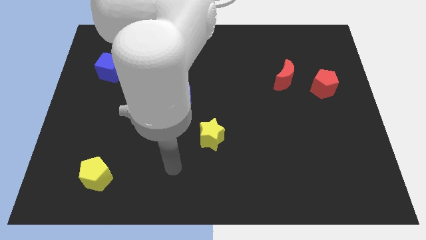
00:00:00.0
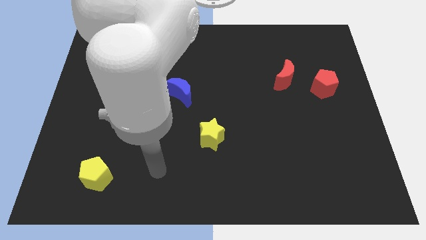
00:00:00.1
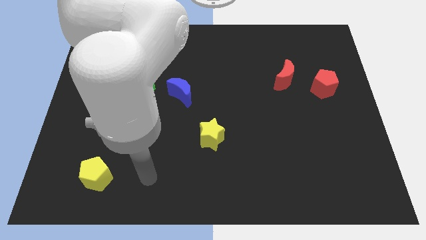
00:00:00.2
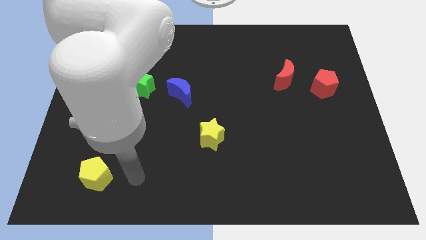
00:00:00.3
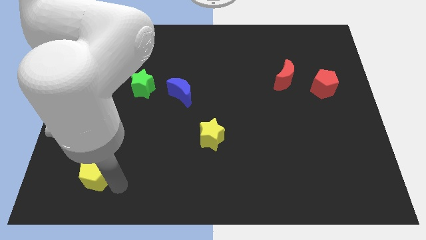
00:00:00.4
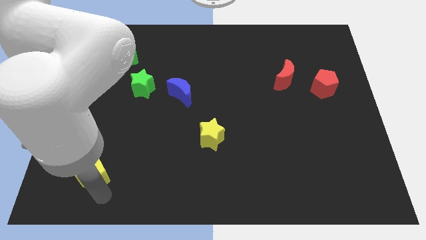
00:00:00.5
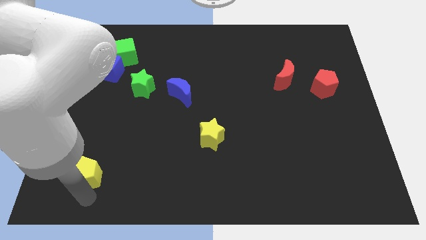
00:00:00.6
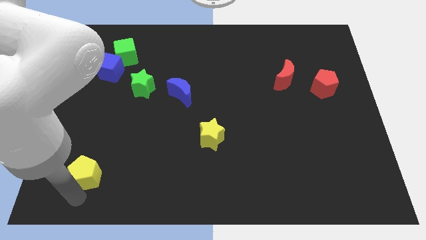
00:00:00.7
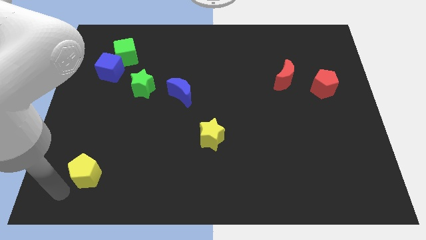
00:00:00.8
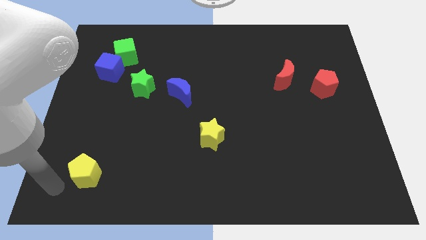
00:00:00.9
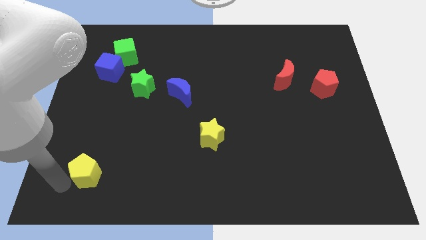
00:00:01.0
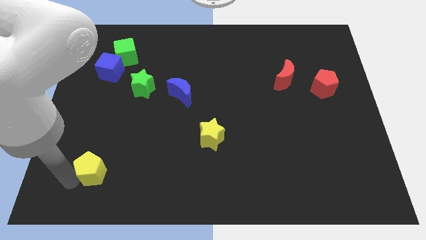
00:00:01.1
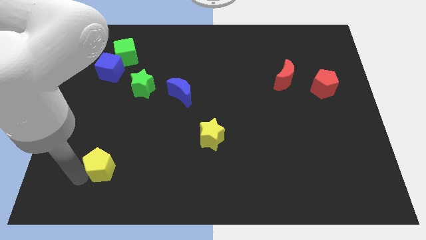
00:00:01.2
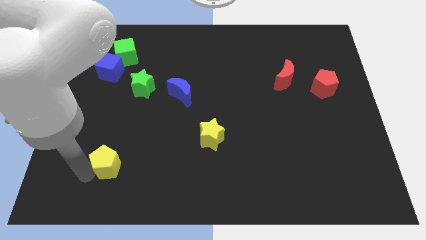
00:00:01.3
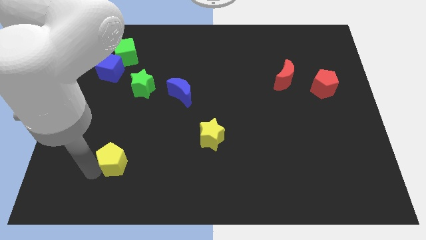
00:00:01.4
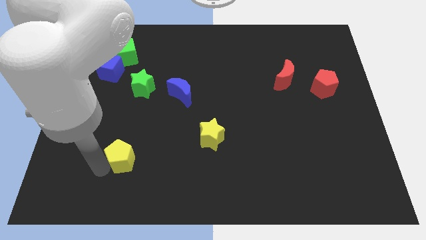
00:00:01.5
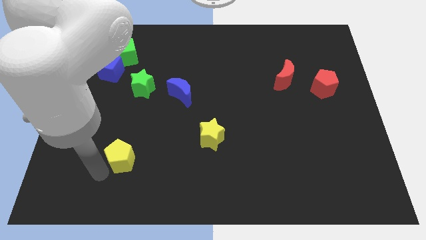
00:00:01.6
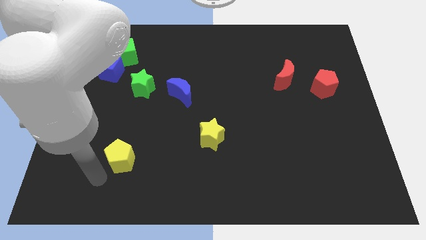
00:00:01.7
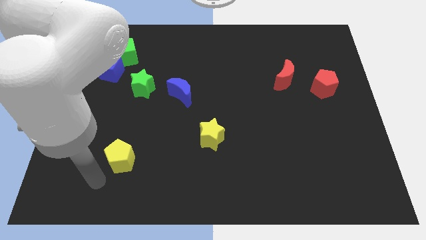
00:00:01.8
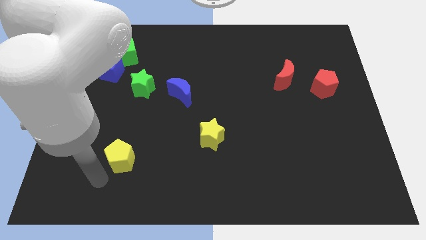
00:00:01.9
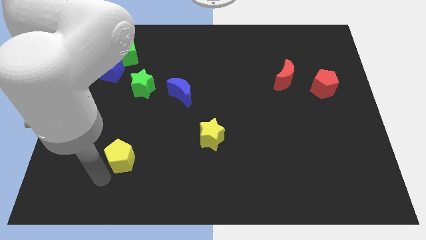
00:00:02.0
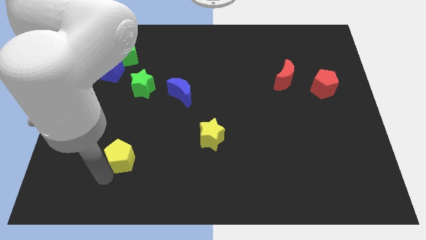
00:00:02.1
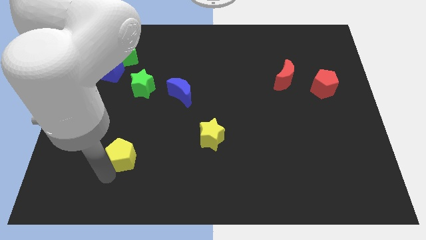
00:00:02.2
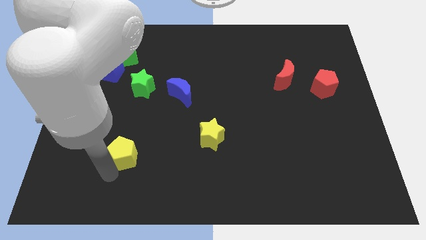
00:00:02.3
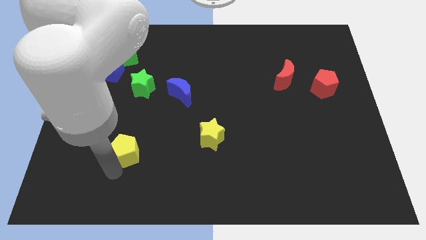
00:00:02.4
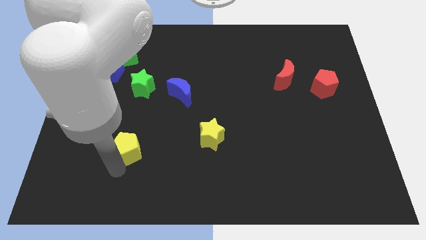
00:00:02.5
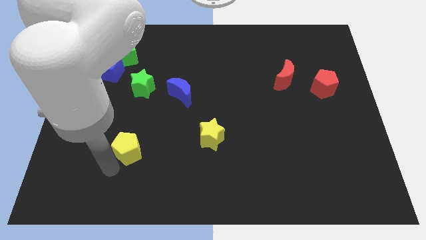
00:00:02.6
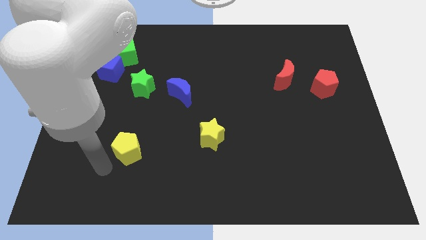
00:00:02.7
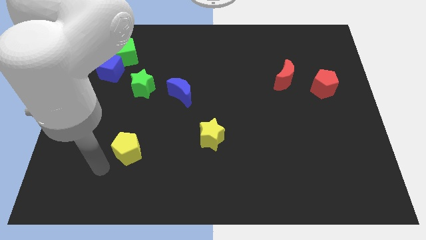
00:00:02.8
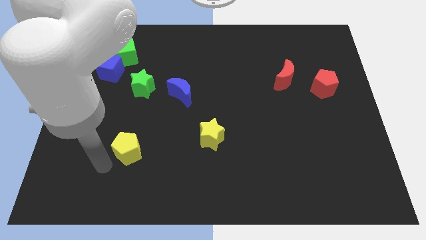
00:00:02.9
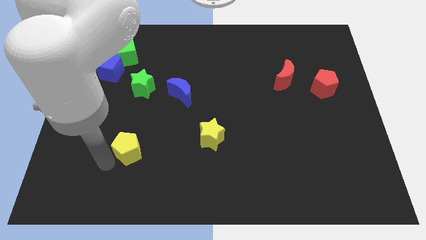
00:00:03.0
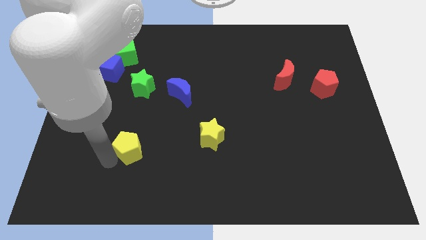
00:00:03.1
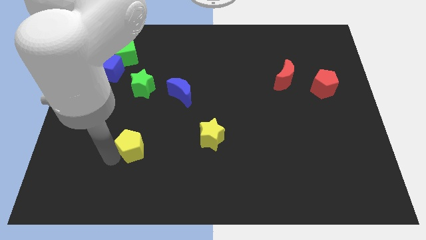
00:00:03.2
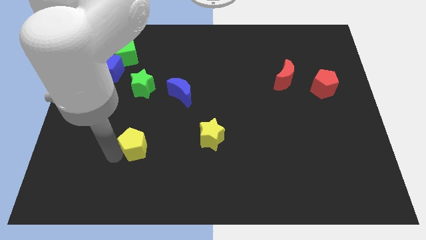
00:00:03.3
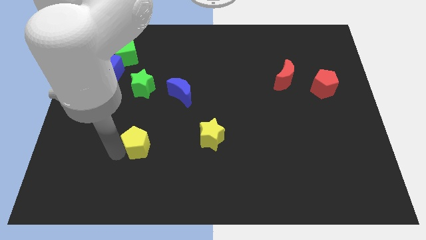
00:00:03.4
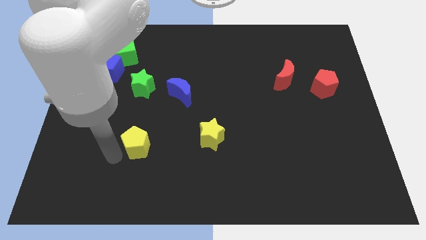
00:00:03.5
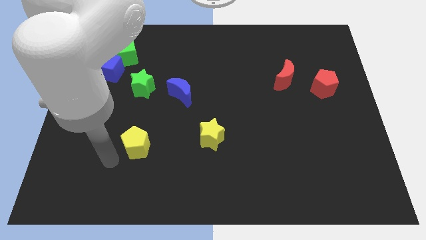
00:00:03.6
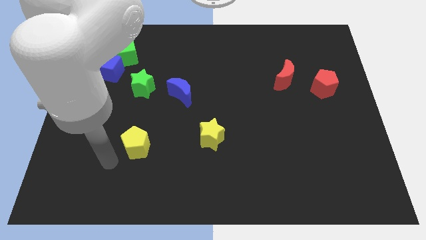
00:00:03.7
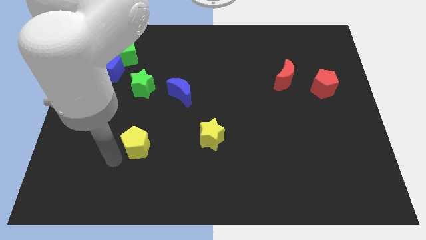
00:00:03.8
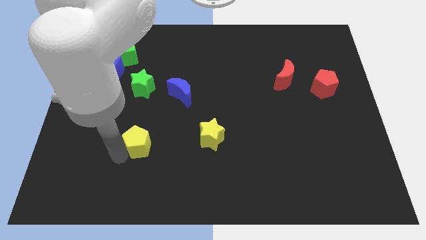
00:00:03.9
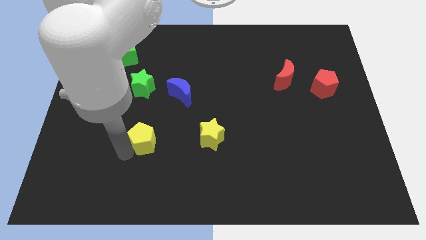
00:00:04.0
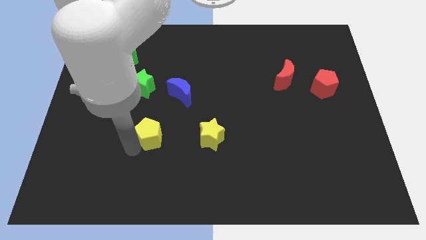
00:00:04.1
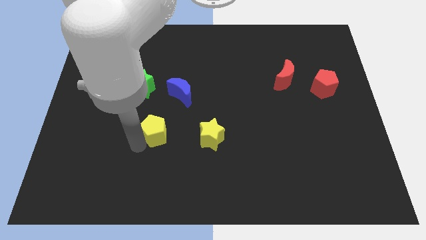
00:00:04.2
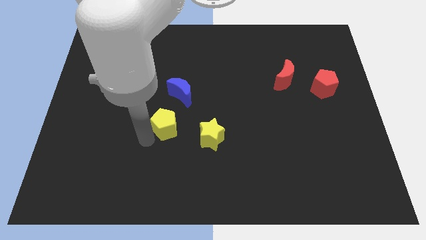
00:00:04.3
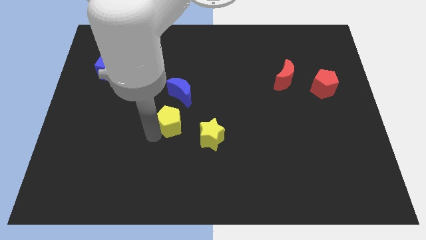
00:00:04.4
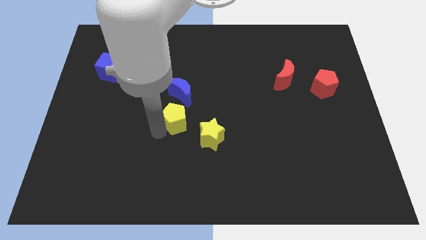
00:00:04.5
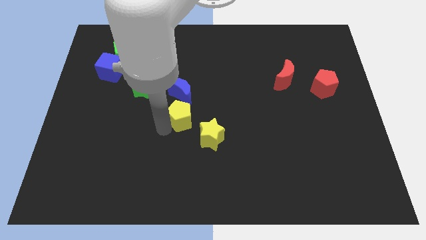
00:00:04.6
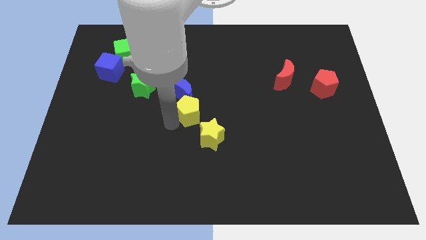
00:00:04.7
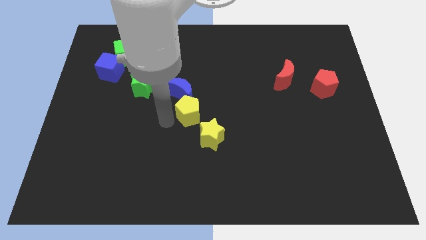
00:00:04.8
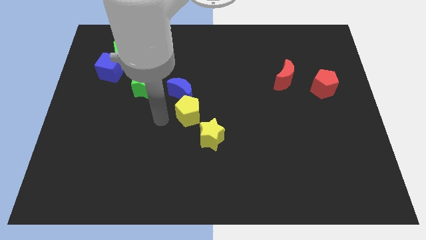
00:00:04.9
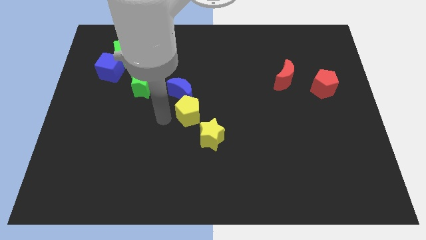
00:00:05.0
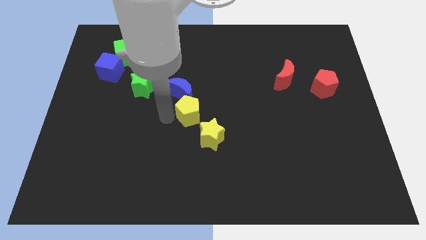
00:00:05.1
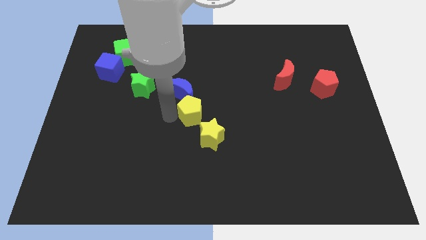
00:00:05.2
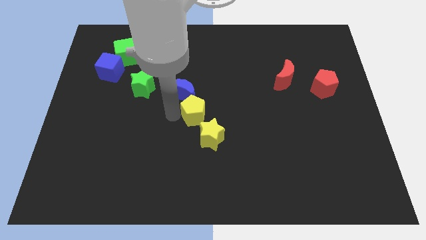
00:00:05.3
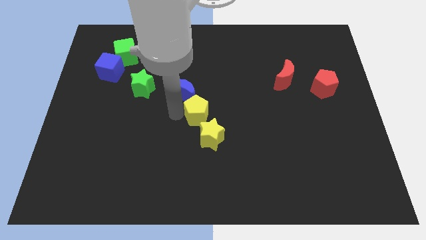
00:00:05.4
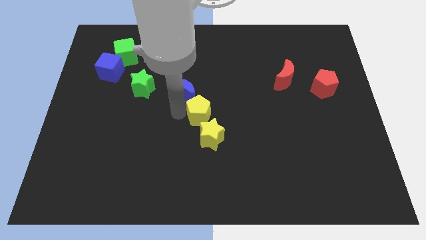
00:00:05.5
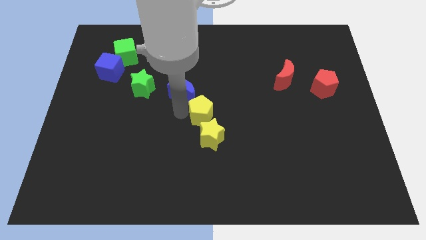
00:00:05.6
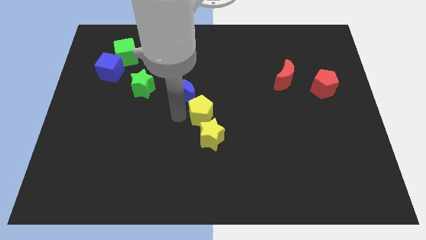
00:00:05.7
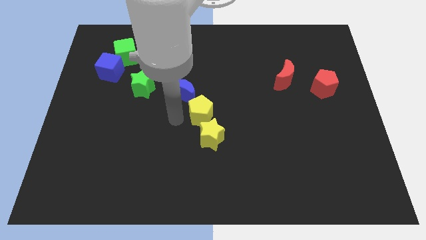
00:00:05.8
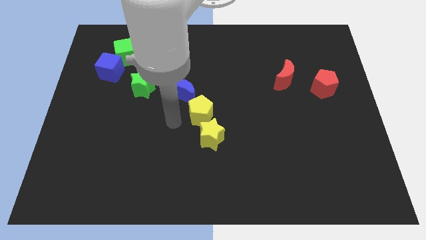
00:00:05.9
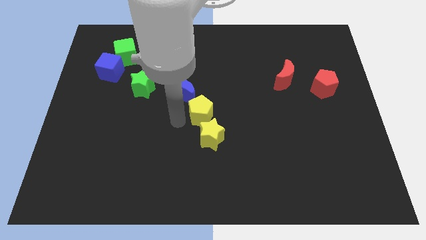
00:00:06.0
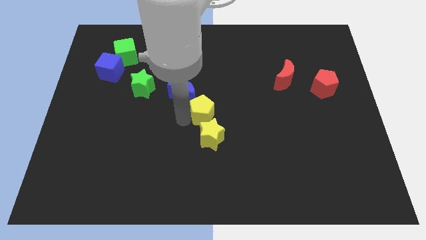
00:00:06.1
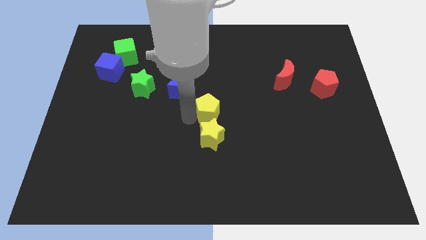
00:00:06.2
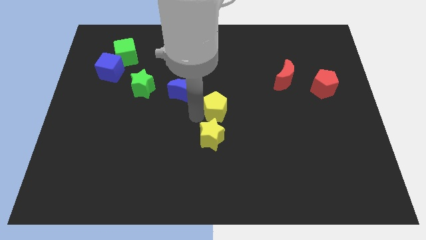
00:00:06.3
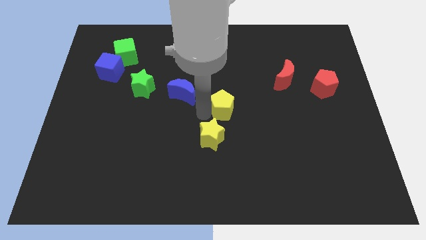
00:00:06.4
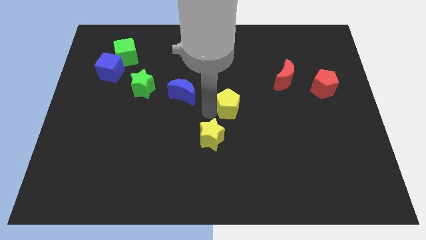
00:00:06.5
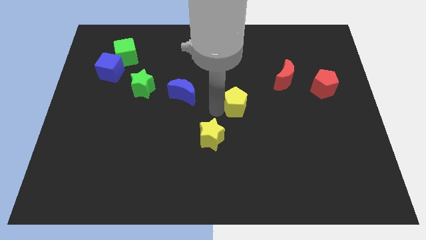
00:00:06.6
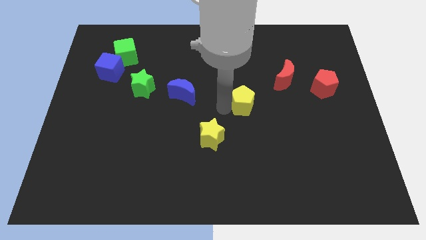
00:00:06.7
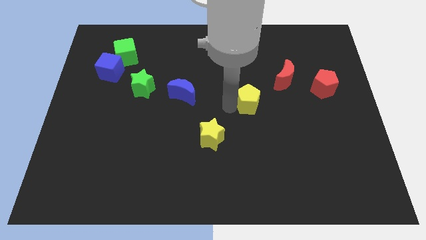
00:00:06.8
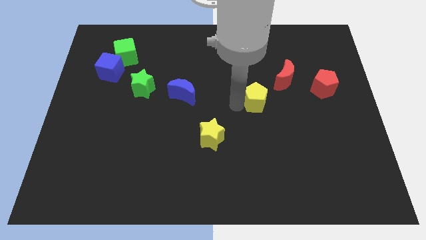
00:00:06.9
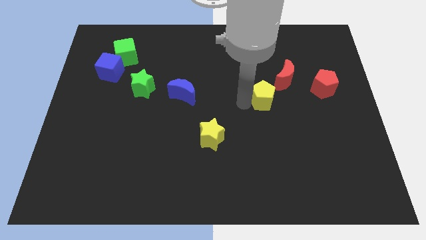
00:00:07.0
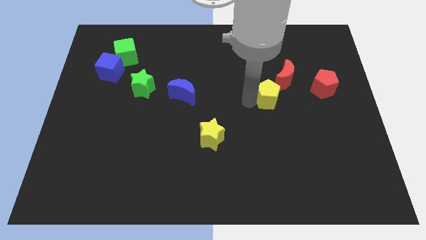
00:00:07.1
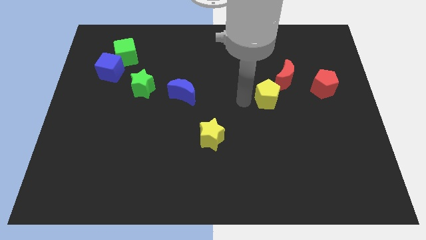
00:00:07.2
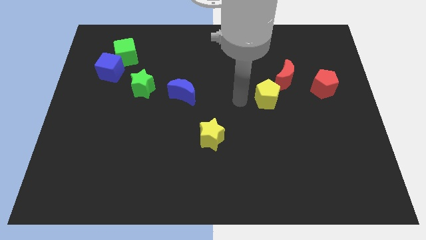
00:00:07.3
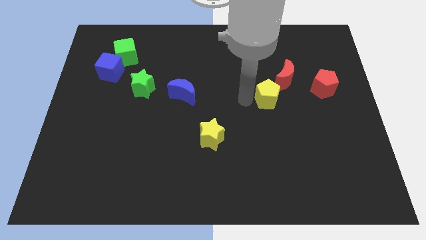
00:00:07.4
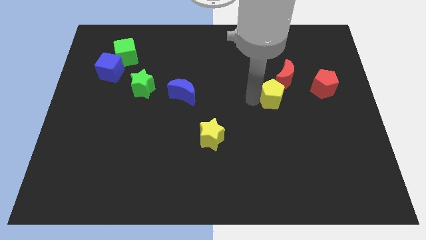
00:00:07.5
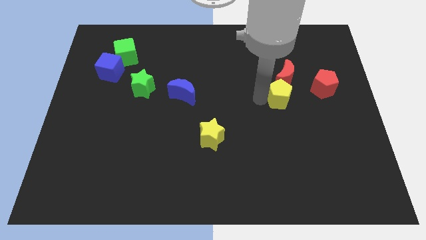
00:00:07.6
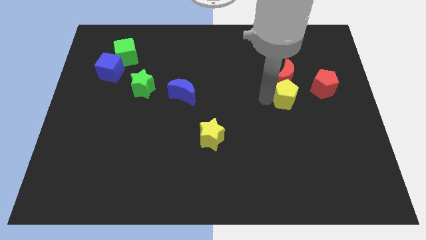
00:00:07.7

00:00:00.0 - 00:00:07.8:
put the yellow pentagon to the bottom right side of the red moon
